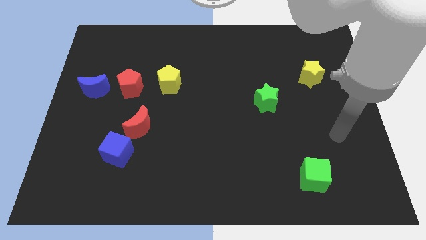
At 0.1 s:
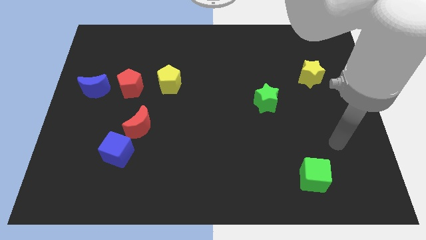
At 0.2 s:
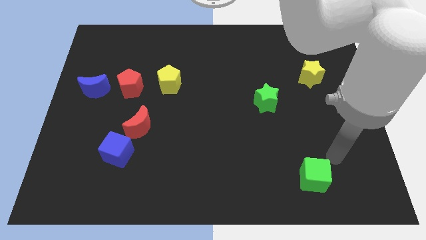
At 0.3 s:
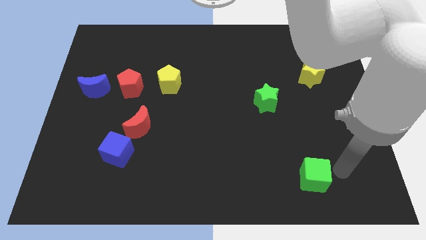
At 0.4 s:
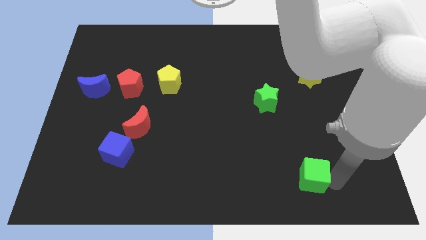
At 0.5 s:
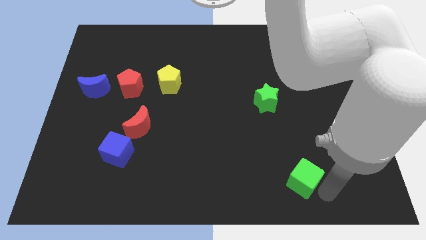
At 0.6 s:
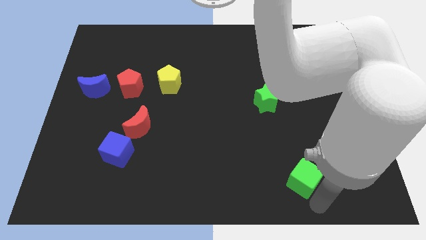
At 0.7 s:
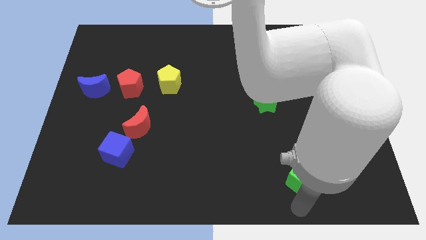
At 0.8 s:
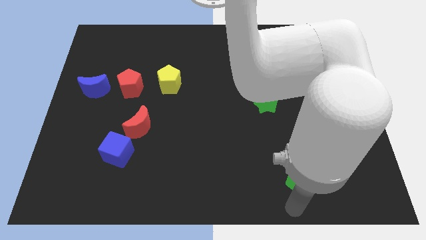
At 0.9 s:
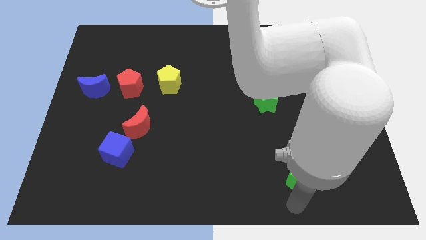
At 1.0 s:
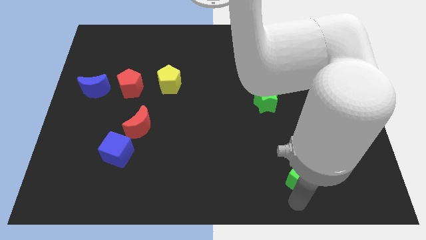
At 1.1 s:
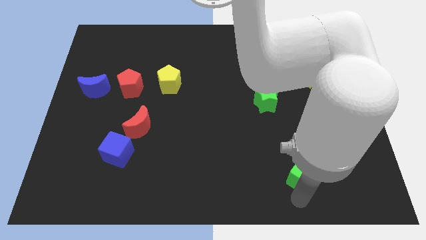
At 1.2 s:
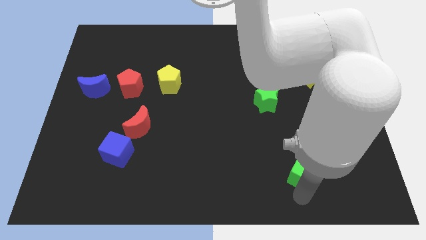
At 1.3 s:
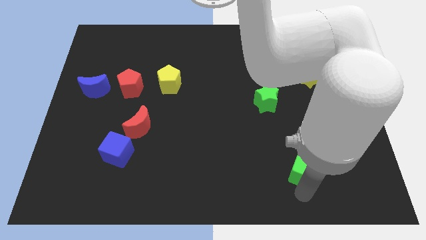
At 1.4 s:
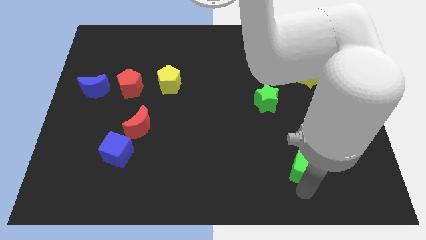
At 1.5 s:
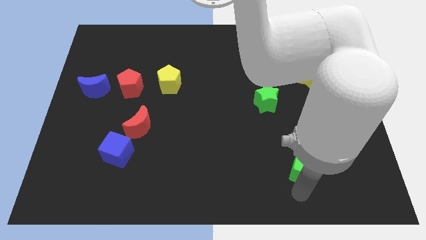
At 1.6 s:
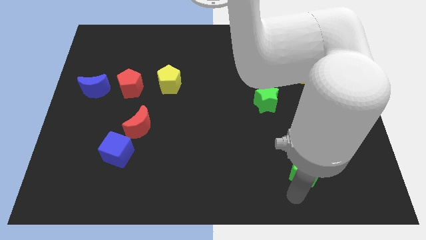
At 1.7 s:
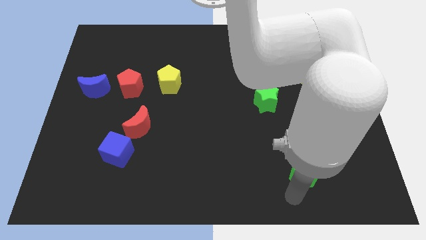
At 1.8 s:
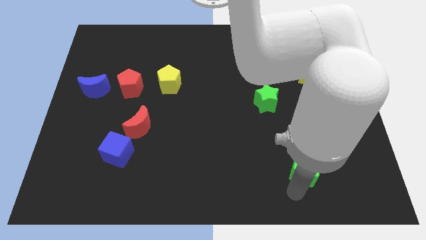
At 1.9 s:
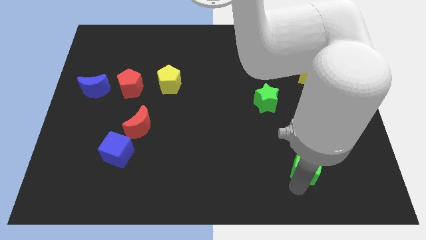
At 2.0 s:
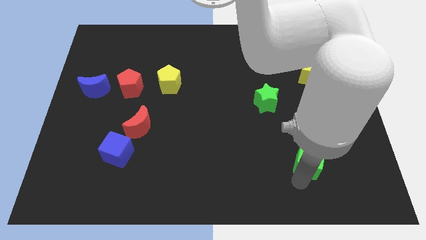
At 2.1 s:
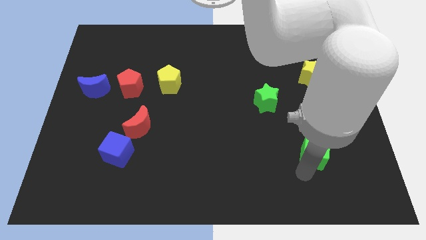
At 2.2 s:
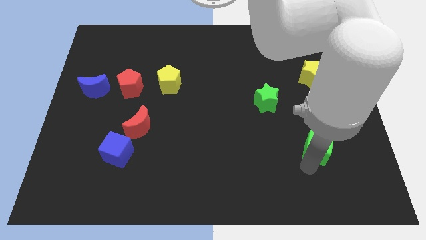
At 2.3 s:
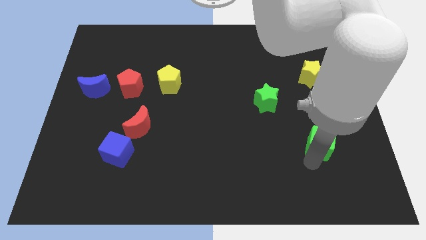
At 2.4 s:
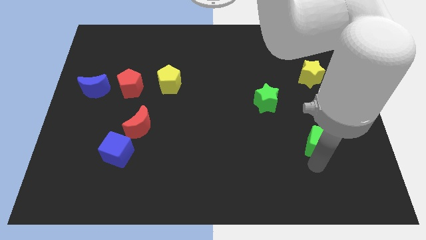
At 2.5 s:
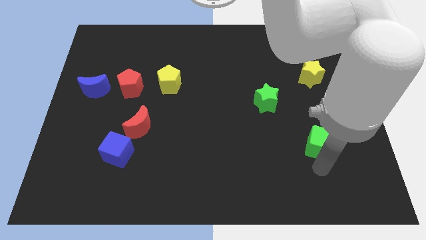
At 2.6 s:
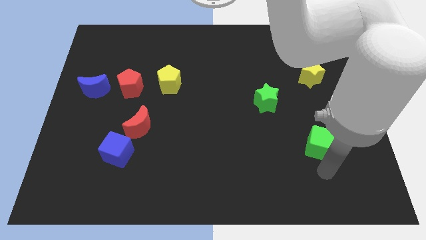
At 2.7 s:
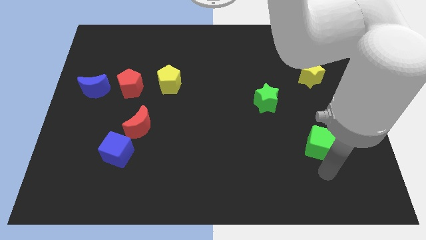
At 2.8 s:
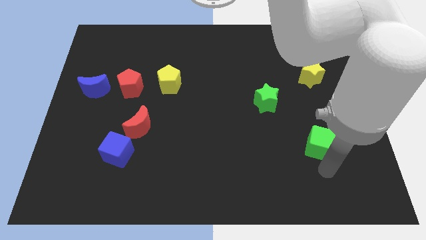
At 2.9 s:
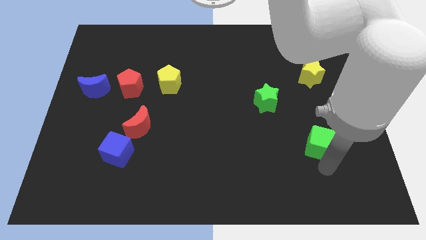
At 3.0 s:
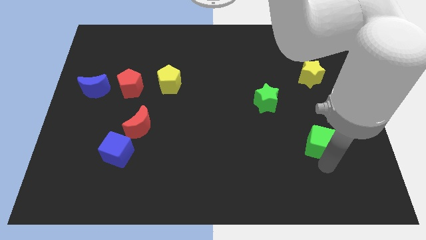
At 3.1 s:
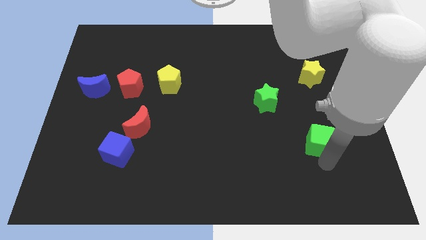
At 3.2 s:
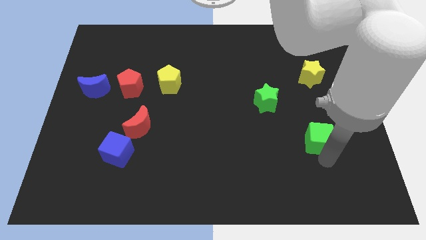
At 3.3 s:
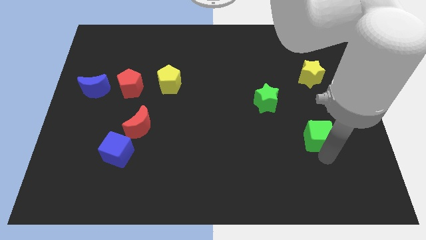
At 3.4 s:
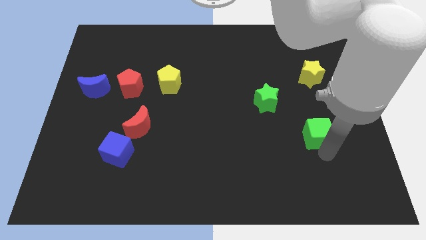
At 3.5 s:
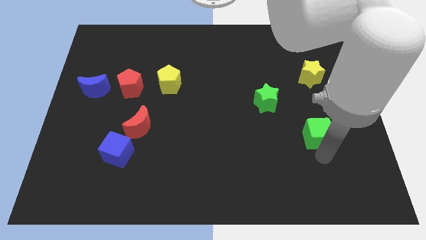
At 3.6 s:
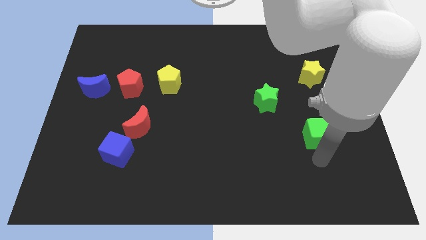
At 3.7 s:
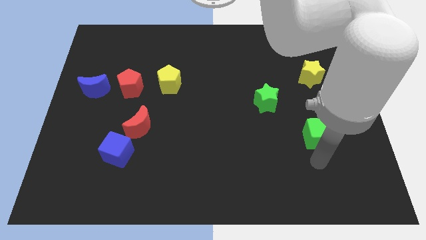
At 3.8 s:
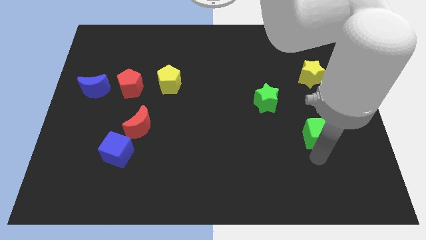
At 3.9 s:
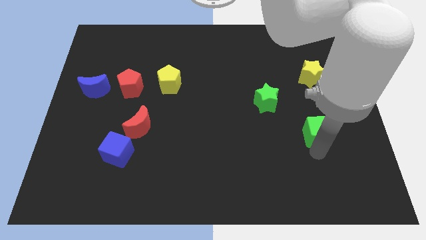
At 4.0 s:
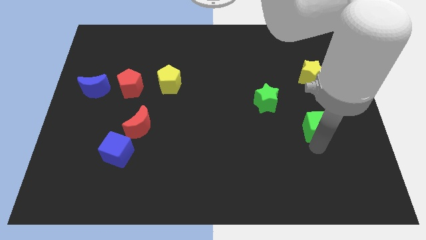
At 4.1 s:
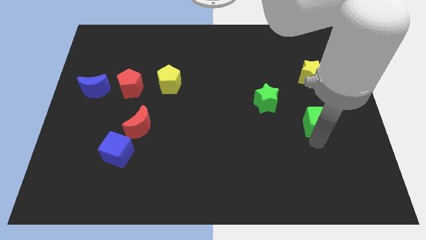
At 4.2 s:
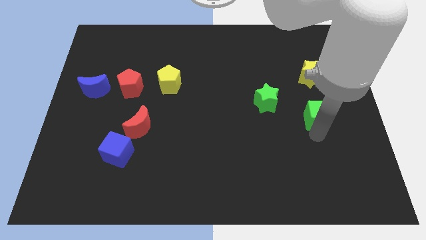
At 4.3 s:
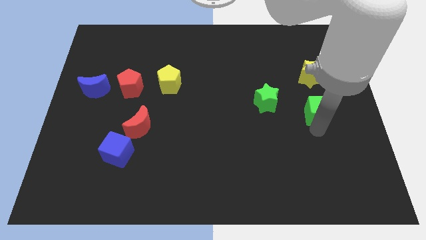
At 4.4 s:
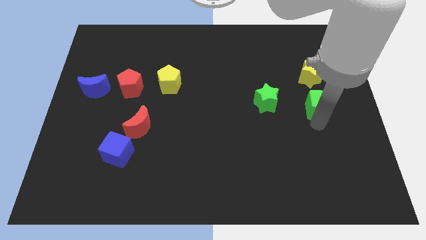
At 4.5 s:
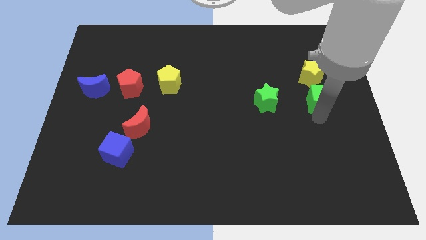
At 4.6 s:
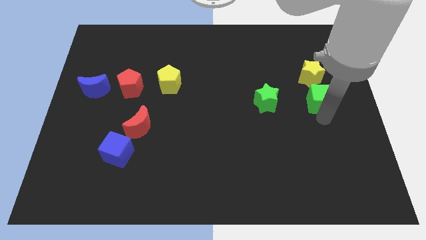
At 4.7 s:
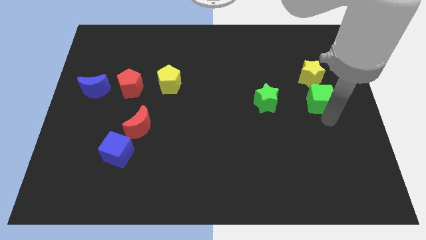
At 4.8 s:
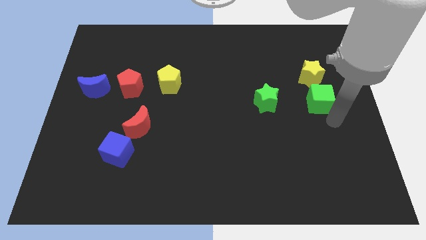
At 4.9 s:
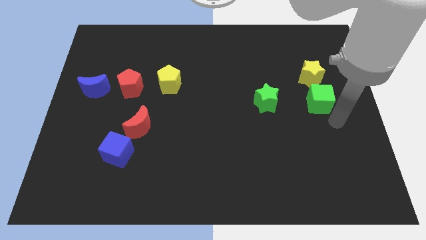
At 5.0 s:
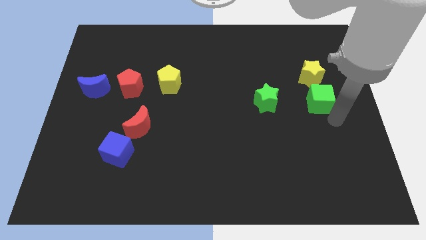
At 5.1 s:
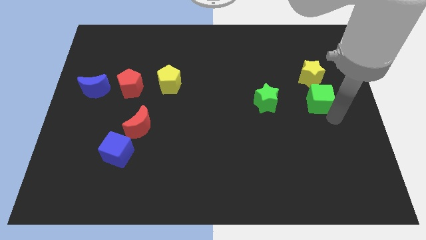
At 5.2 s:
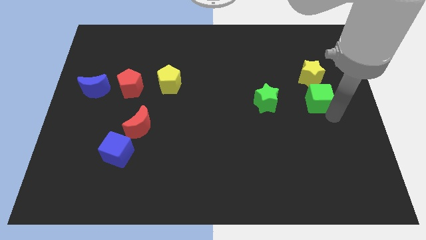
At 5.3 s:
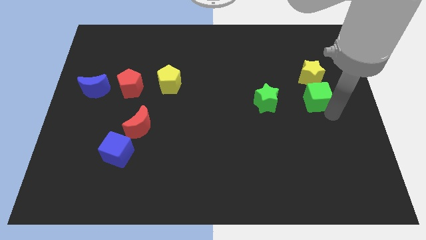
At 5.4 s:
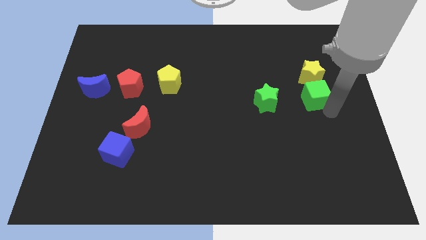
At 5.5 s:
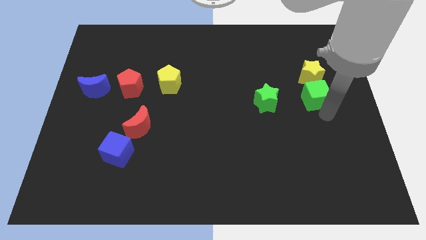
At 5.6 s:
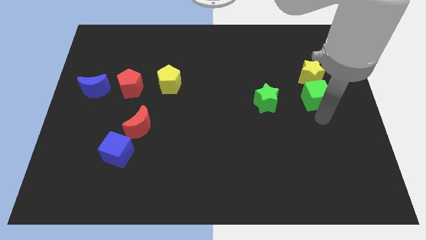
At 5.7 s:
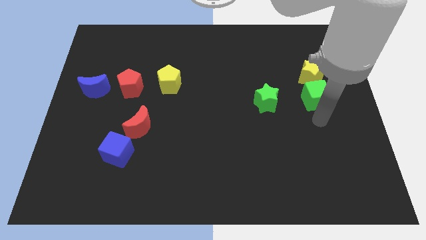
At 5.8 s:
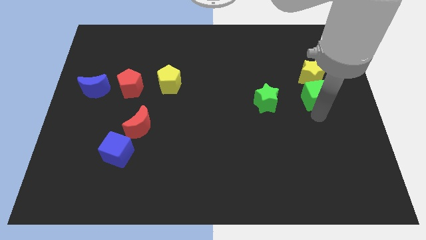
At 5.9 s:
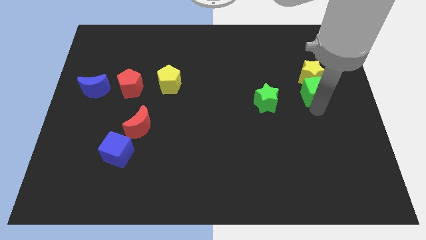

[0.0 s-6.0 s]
move the green cube to the yellow star

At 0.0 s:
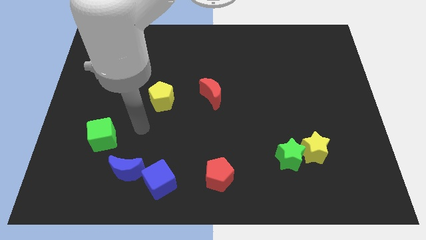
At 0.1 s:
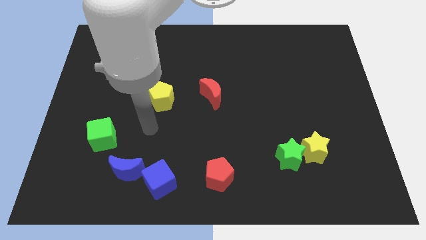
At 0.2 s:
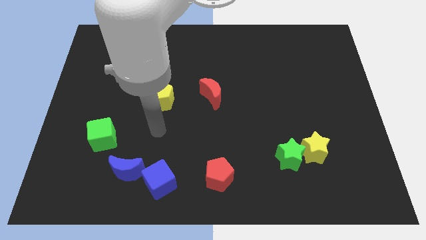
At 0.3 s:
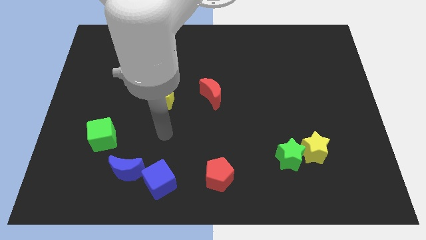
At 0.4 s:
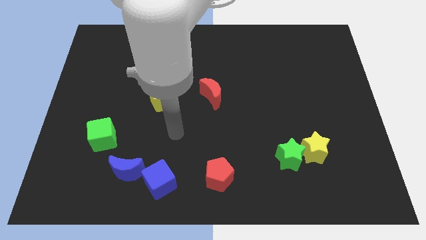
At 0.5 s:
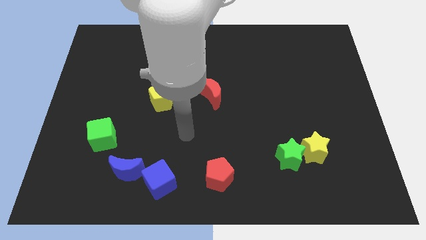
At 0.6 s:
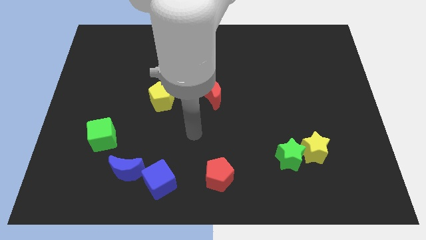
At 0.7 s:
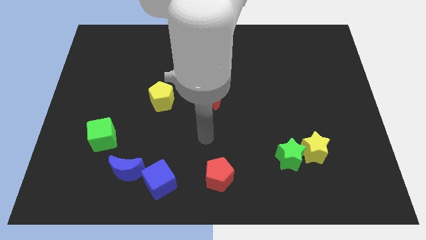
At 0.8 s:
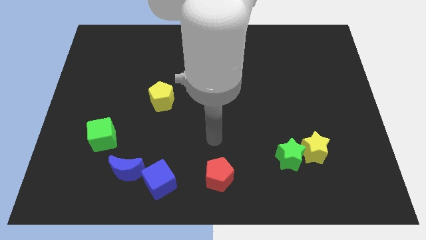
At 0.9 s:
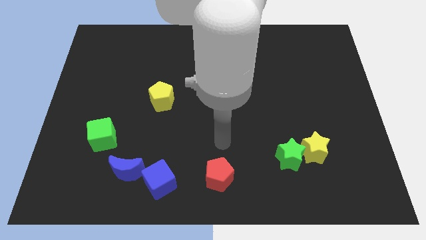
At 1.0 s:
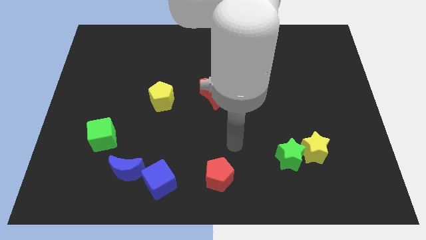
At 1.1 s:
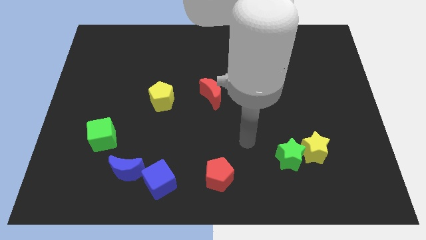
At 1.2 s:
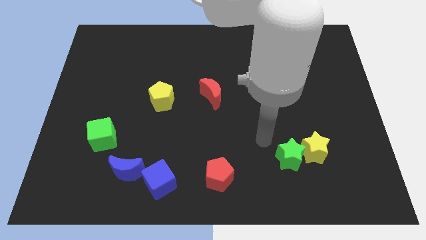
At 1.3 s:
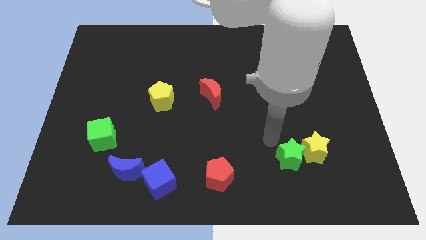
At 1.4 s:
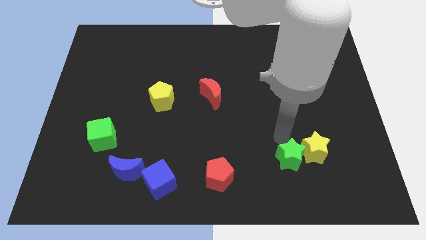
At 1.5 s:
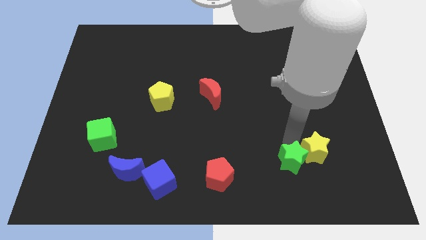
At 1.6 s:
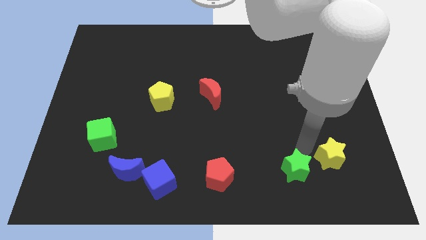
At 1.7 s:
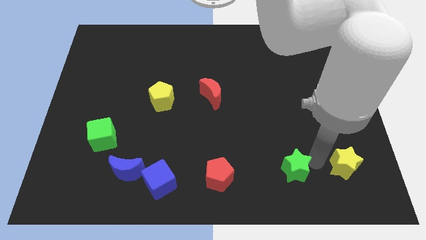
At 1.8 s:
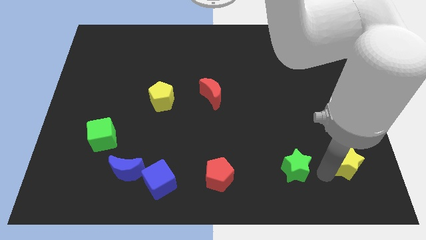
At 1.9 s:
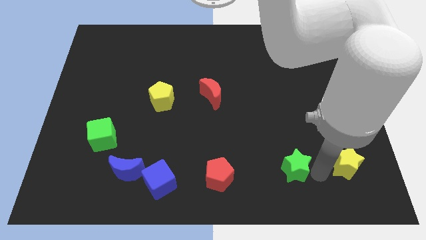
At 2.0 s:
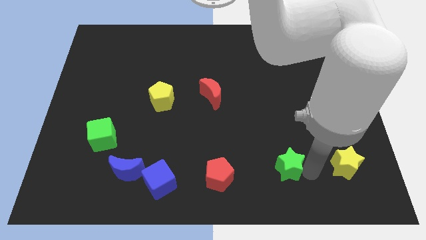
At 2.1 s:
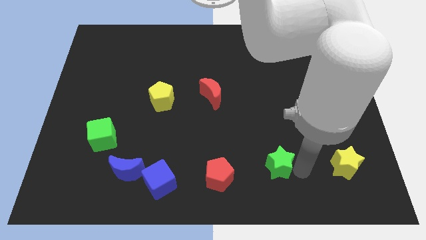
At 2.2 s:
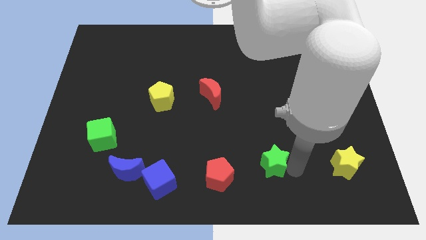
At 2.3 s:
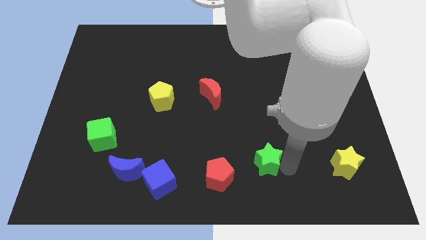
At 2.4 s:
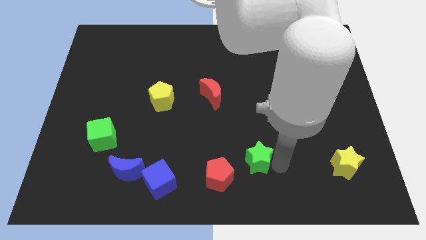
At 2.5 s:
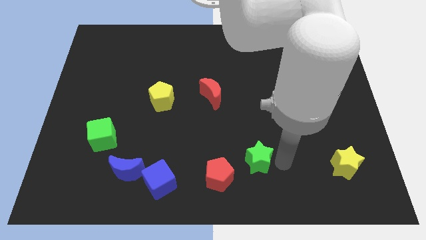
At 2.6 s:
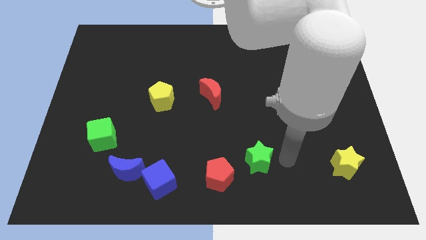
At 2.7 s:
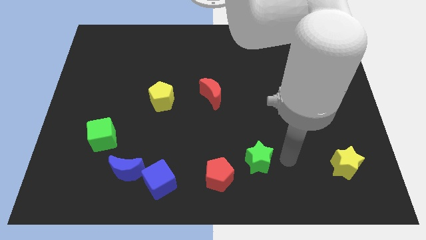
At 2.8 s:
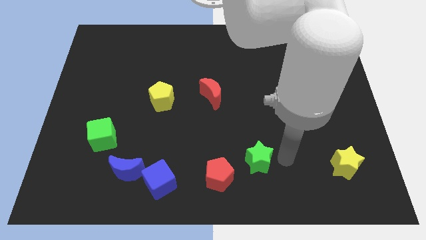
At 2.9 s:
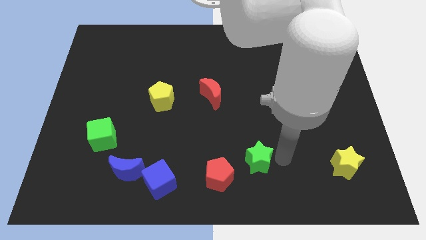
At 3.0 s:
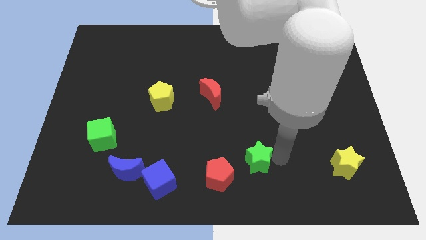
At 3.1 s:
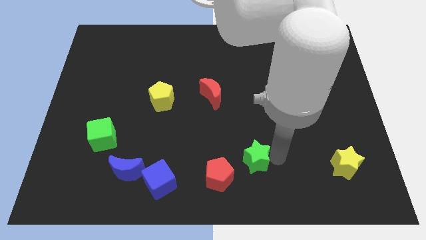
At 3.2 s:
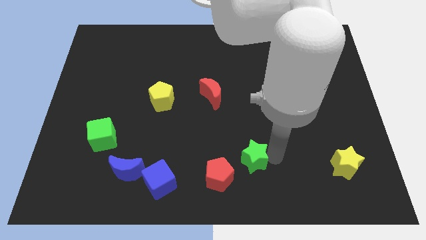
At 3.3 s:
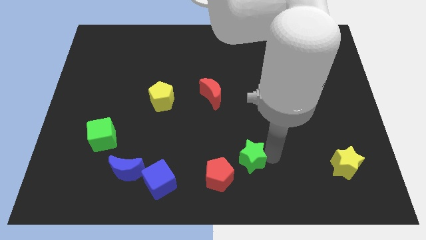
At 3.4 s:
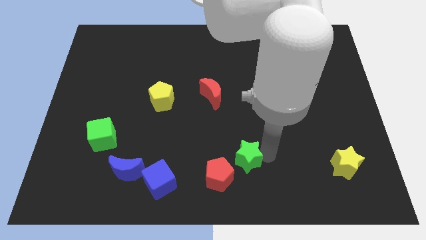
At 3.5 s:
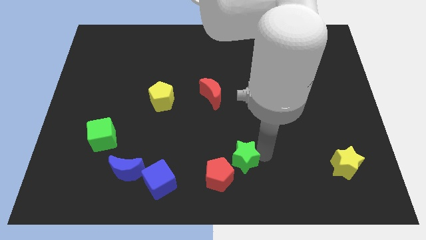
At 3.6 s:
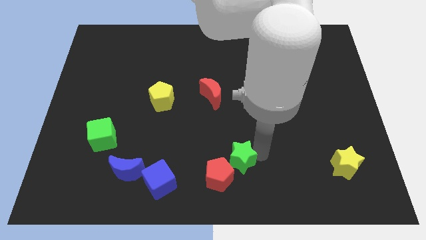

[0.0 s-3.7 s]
push the green star towards the red pentagon
